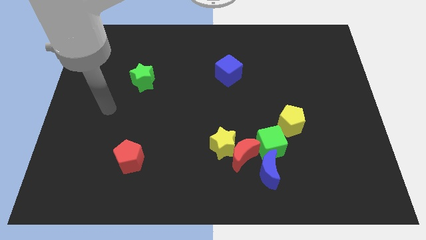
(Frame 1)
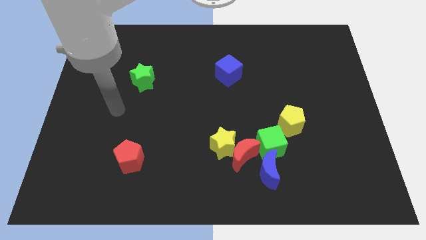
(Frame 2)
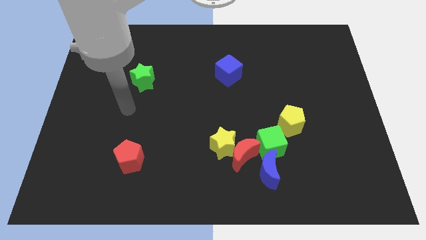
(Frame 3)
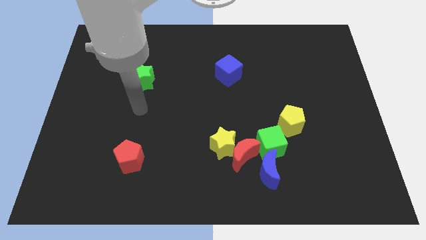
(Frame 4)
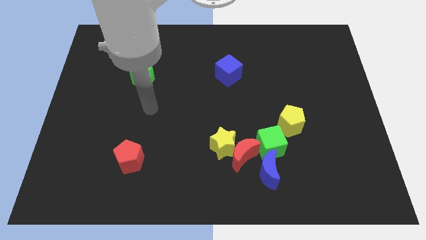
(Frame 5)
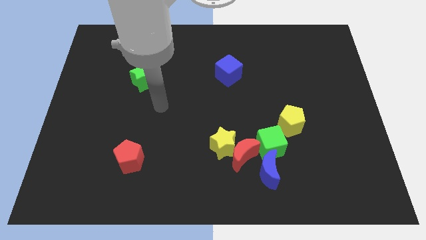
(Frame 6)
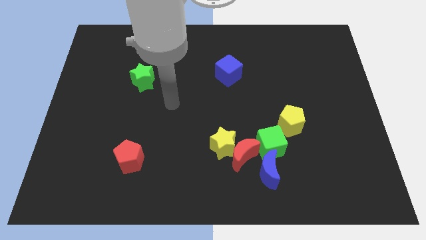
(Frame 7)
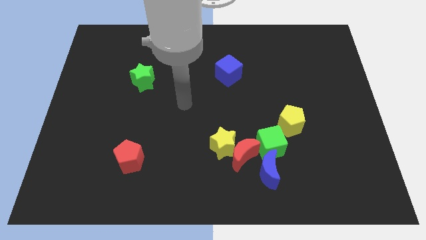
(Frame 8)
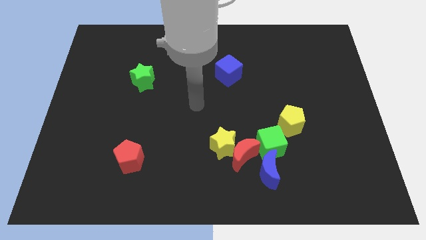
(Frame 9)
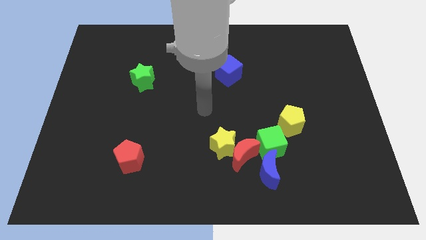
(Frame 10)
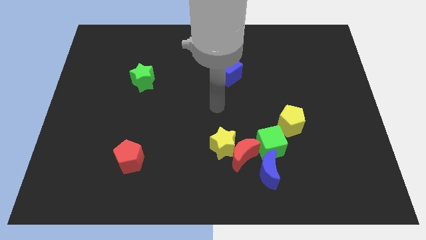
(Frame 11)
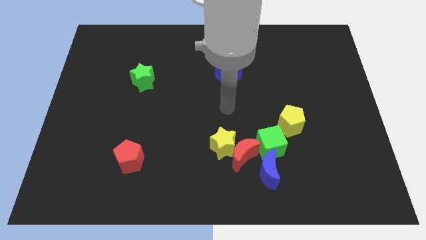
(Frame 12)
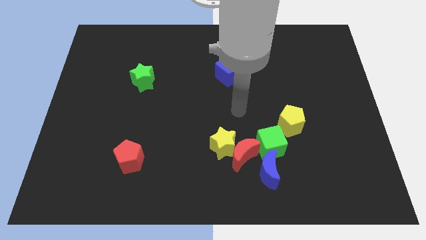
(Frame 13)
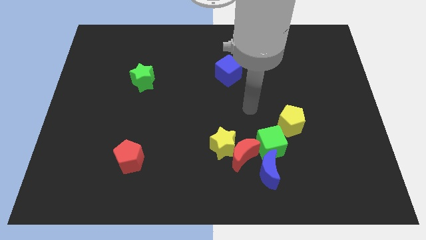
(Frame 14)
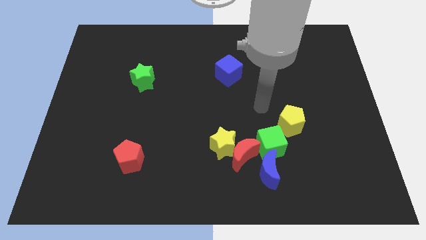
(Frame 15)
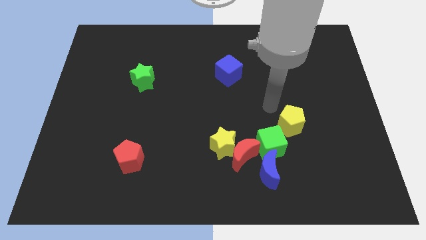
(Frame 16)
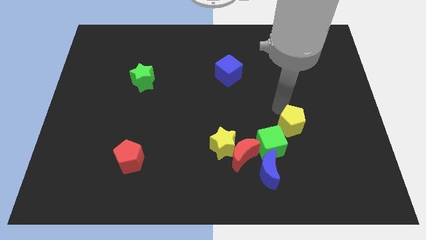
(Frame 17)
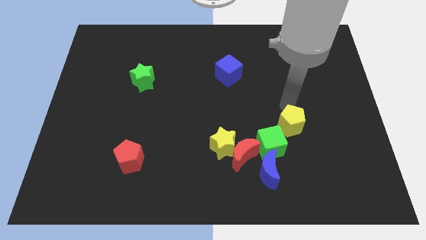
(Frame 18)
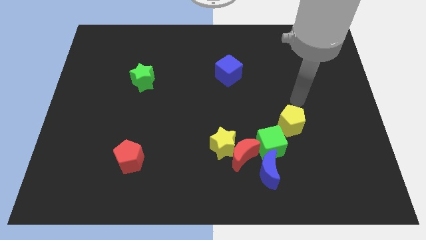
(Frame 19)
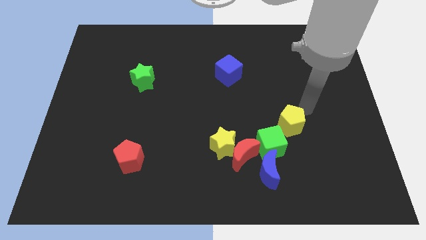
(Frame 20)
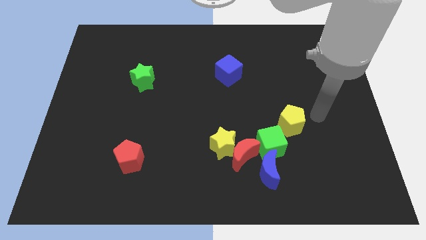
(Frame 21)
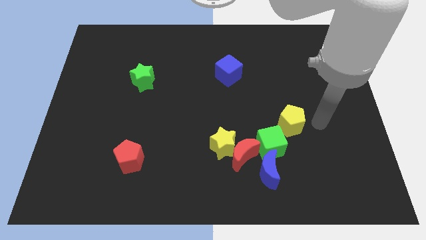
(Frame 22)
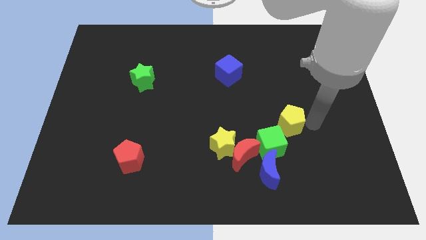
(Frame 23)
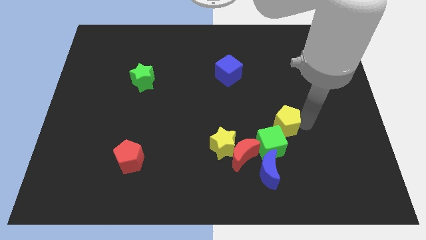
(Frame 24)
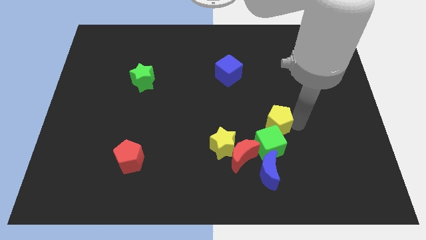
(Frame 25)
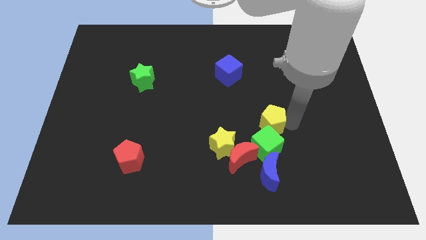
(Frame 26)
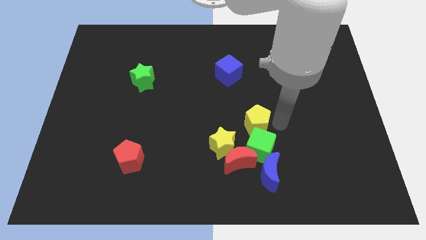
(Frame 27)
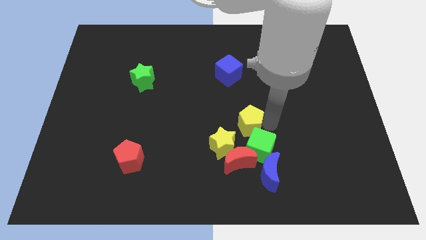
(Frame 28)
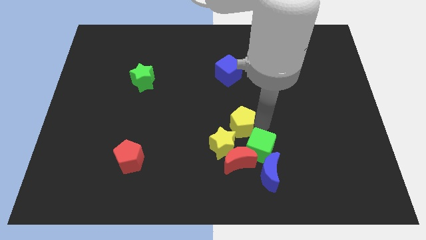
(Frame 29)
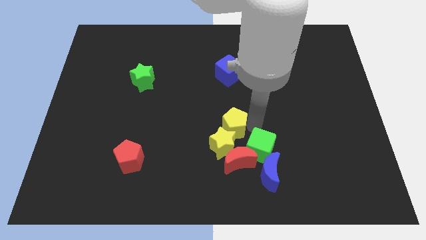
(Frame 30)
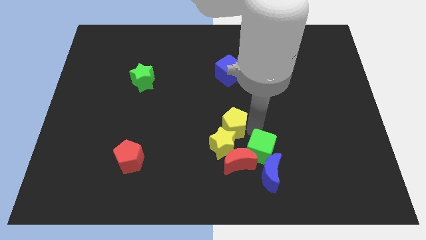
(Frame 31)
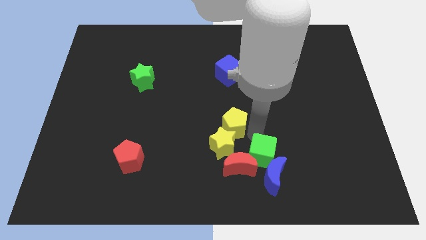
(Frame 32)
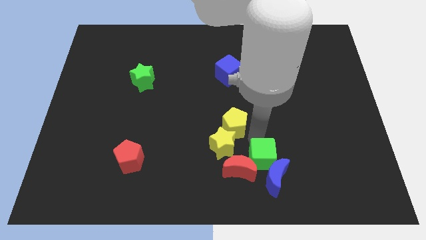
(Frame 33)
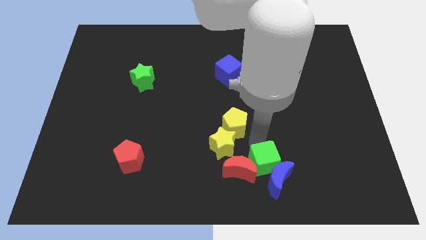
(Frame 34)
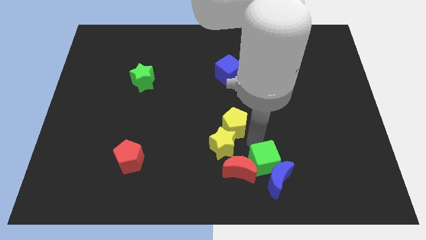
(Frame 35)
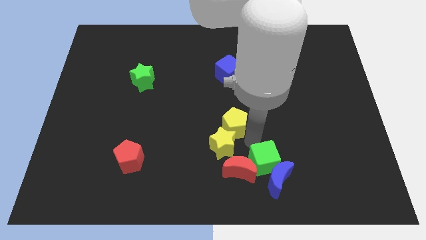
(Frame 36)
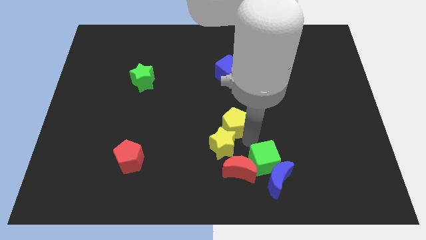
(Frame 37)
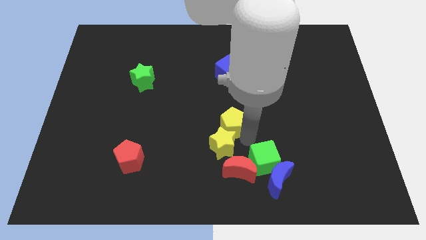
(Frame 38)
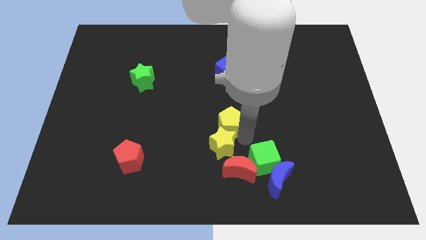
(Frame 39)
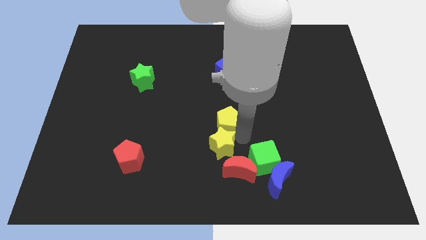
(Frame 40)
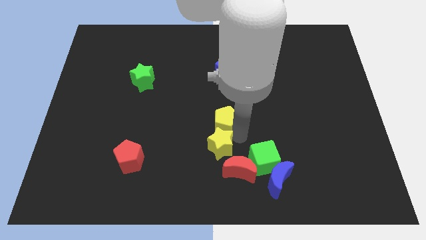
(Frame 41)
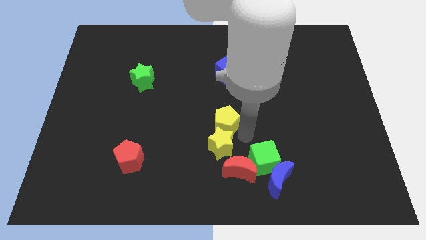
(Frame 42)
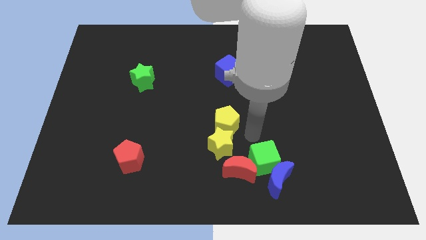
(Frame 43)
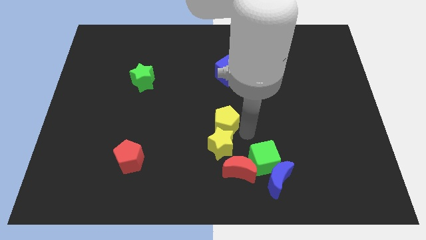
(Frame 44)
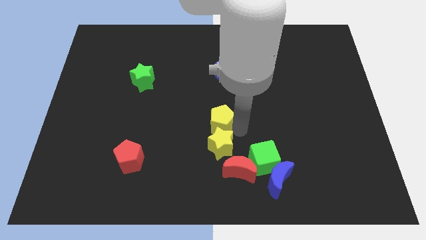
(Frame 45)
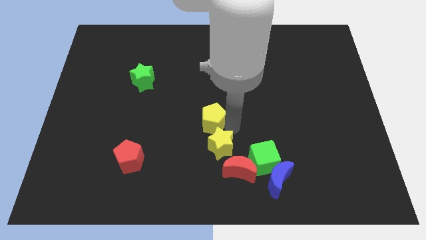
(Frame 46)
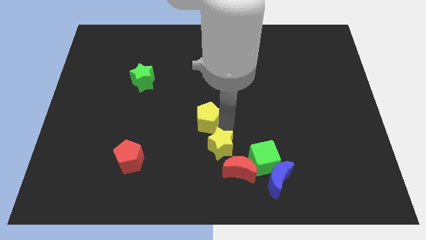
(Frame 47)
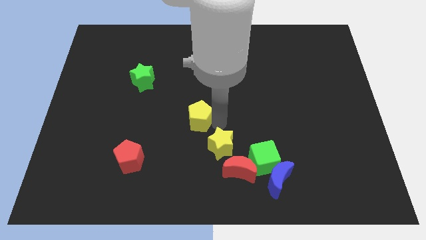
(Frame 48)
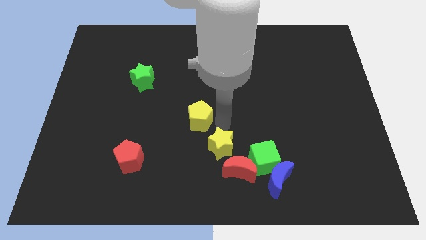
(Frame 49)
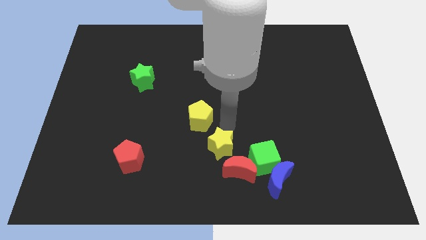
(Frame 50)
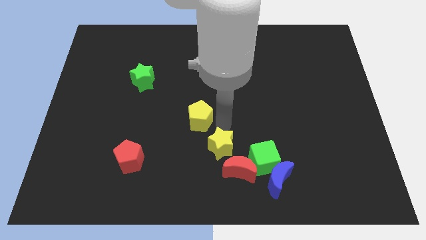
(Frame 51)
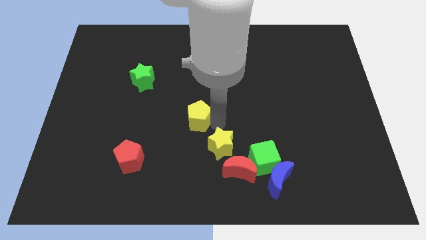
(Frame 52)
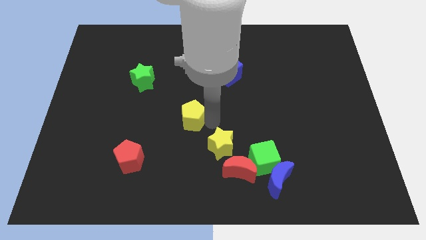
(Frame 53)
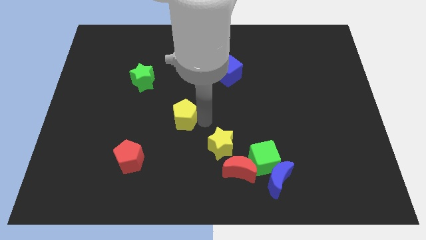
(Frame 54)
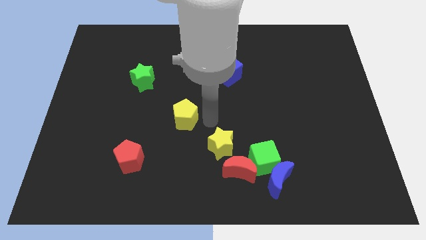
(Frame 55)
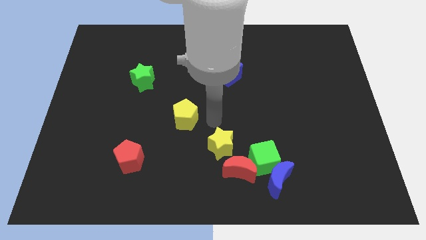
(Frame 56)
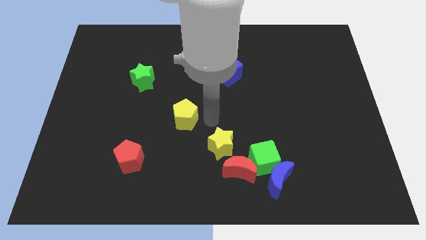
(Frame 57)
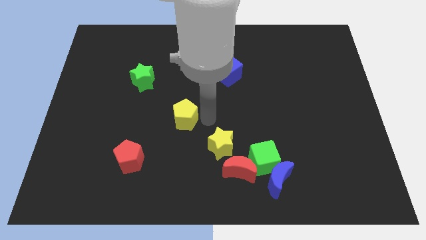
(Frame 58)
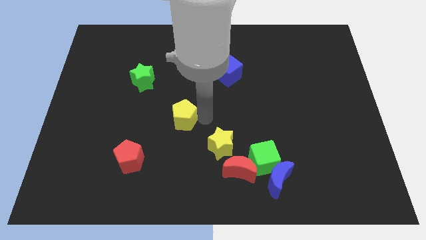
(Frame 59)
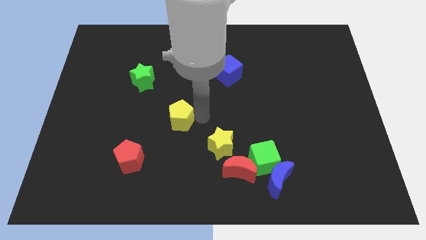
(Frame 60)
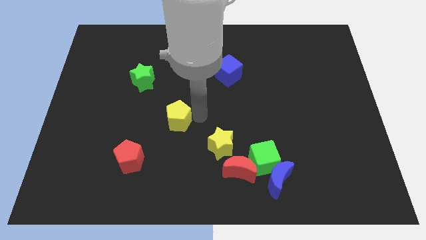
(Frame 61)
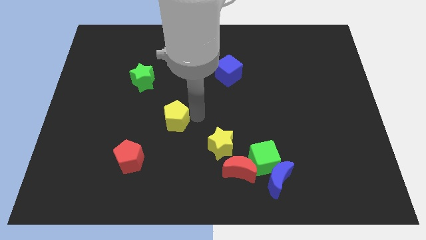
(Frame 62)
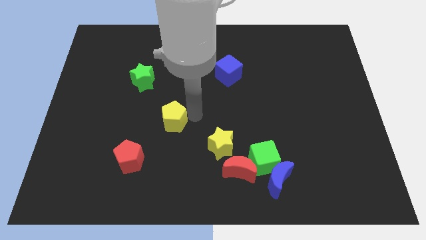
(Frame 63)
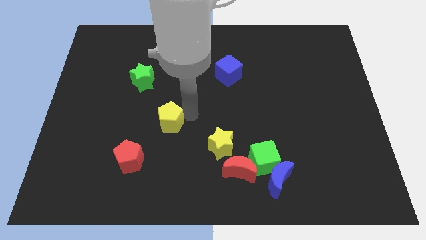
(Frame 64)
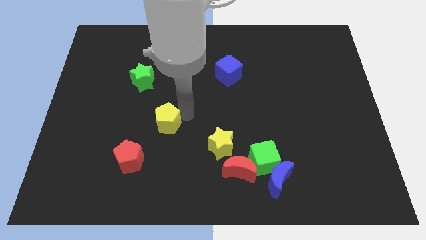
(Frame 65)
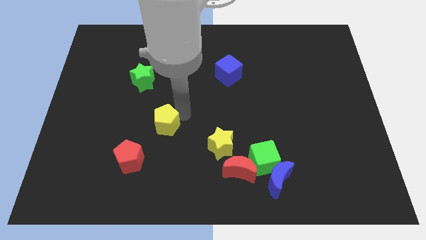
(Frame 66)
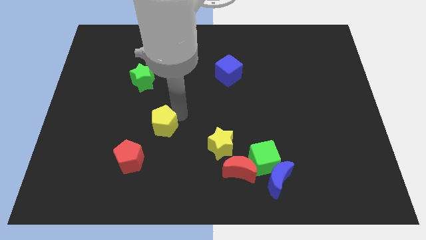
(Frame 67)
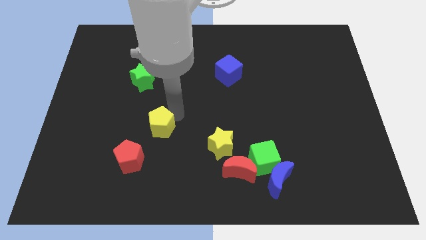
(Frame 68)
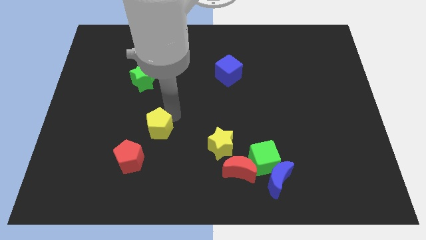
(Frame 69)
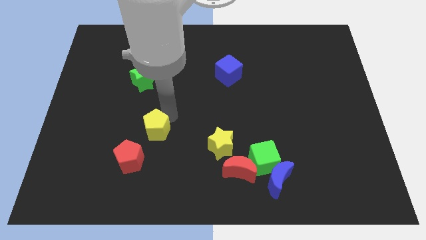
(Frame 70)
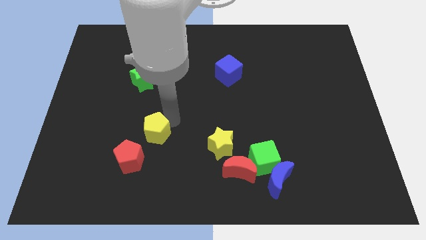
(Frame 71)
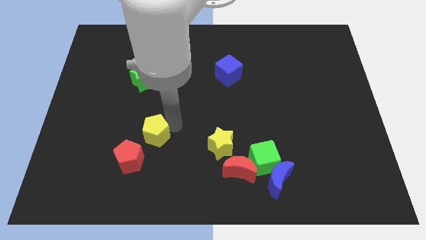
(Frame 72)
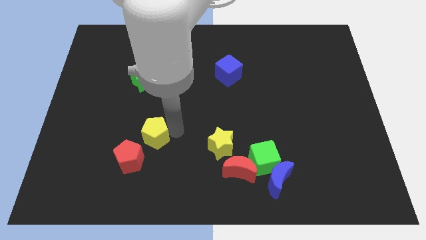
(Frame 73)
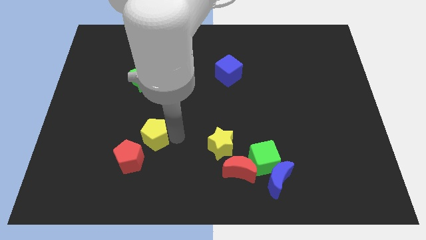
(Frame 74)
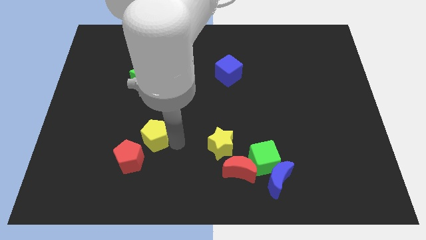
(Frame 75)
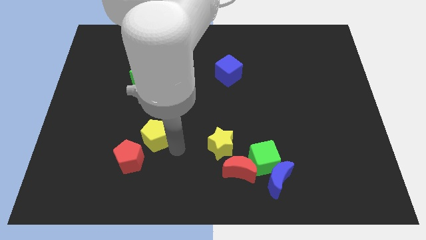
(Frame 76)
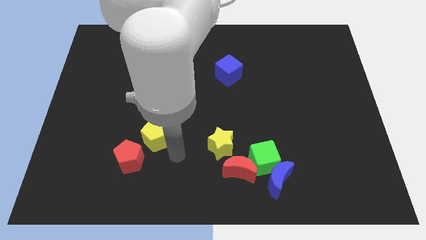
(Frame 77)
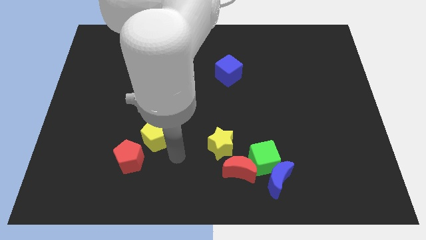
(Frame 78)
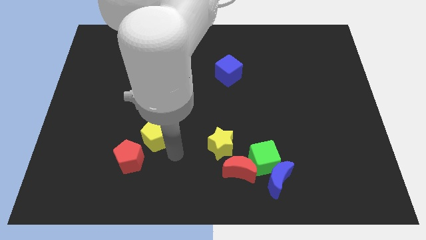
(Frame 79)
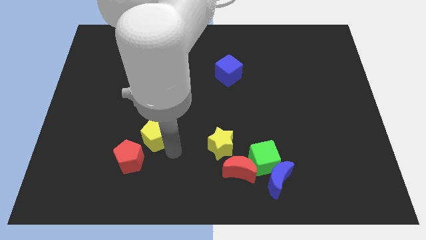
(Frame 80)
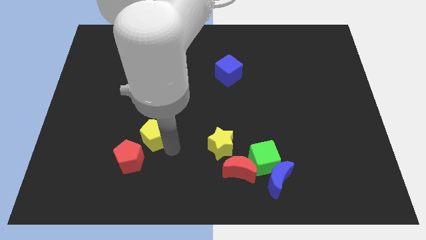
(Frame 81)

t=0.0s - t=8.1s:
slide the yellow pentagon to the top of the red pentagon
